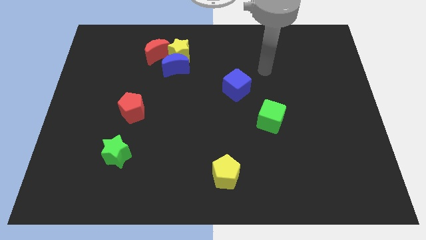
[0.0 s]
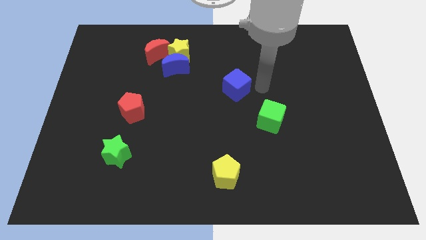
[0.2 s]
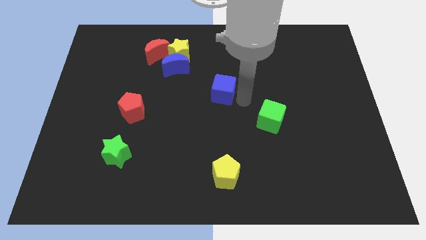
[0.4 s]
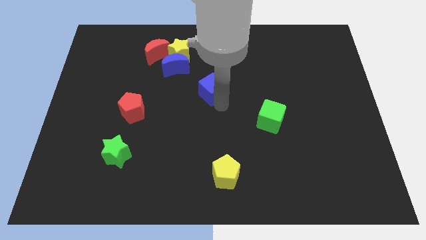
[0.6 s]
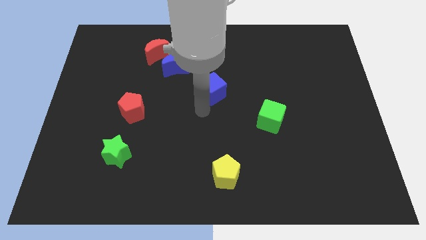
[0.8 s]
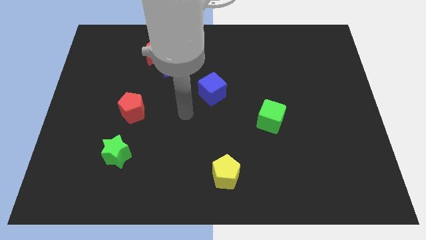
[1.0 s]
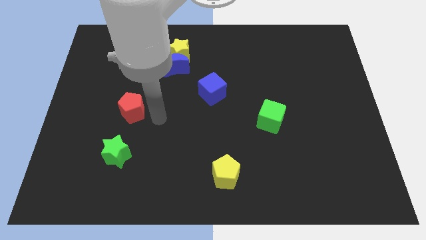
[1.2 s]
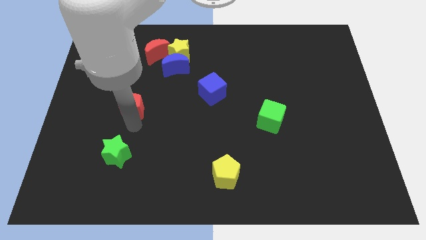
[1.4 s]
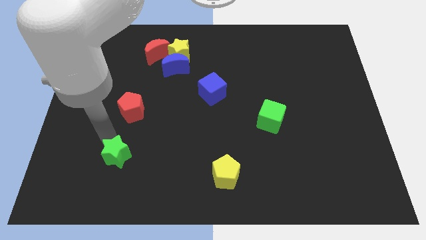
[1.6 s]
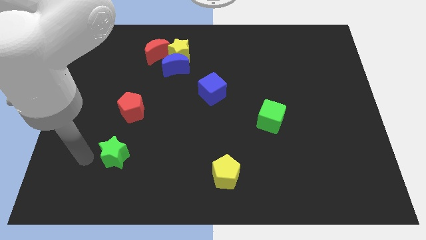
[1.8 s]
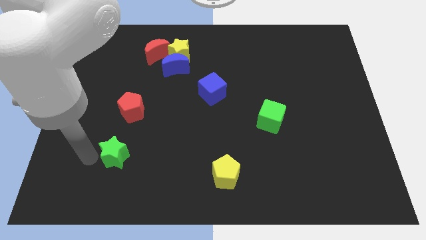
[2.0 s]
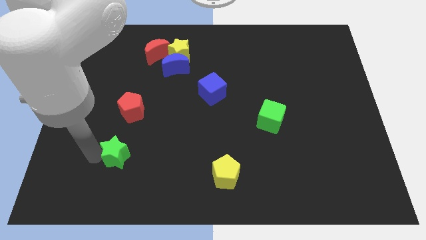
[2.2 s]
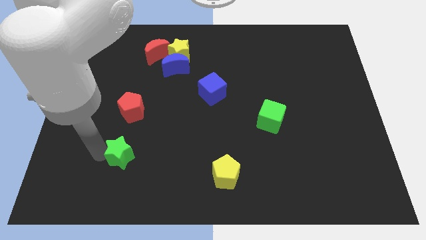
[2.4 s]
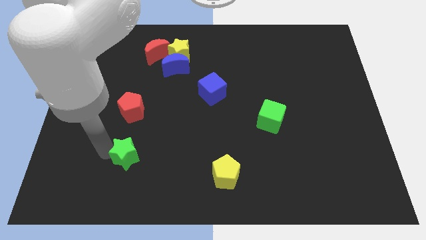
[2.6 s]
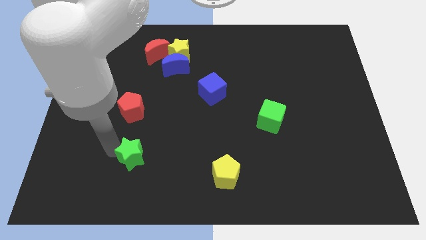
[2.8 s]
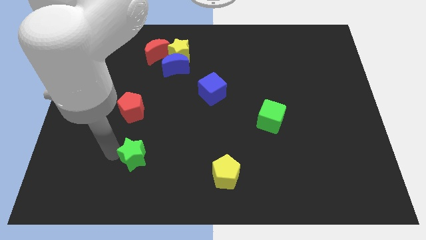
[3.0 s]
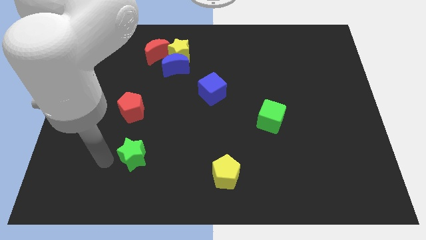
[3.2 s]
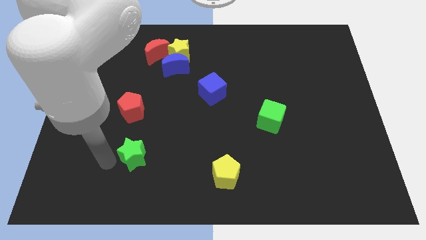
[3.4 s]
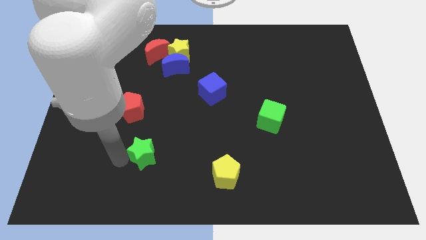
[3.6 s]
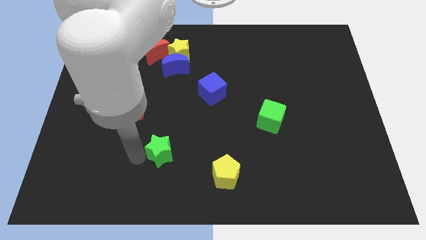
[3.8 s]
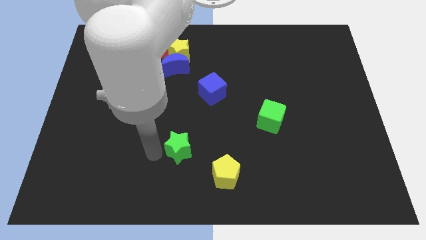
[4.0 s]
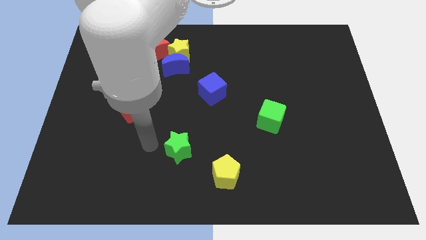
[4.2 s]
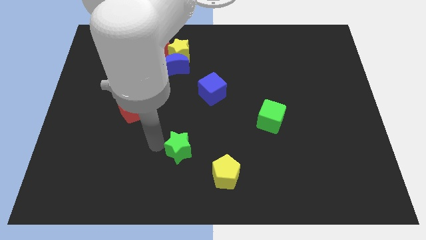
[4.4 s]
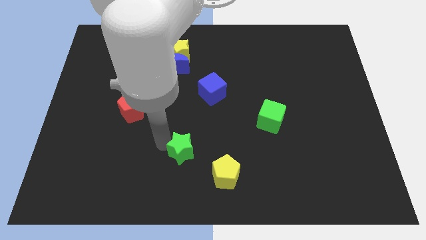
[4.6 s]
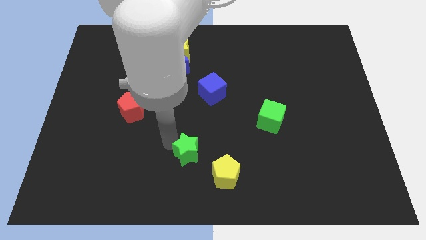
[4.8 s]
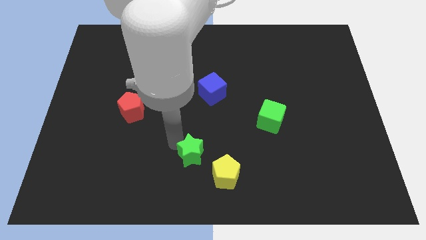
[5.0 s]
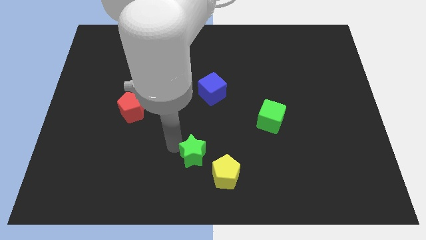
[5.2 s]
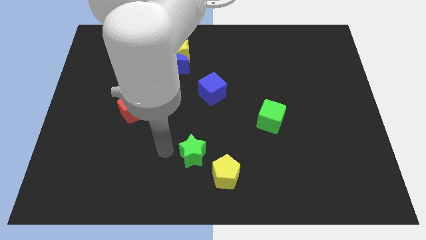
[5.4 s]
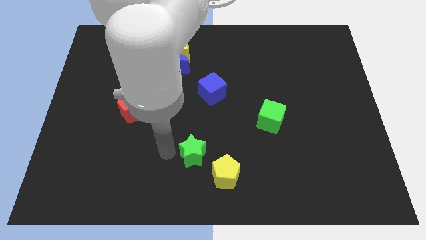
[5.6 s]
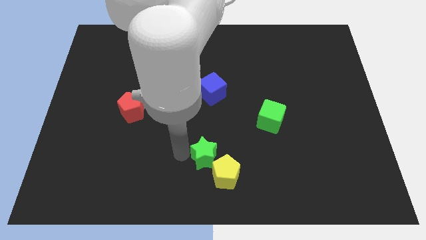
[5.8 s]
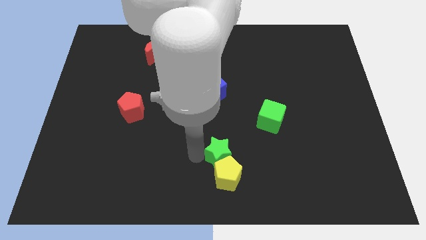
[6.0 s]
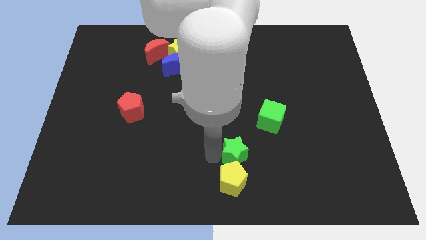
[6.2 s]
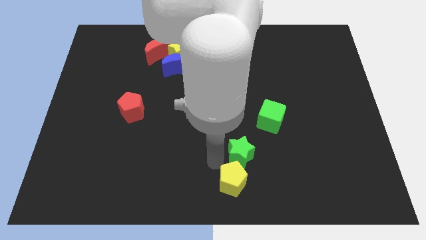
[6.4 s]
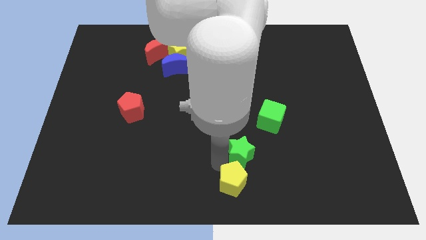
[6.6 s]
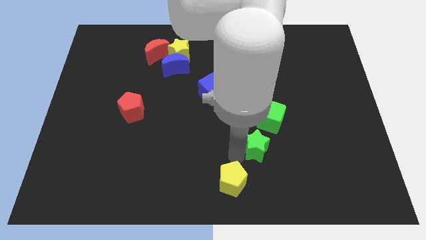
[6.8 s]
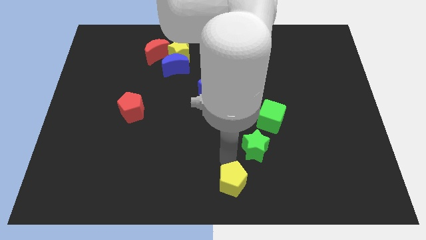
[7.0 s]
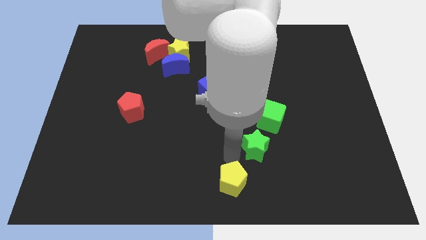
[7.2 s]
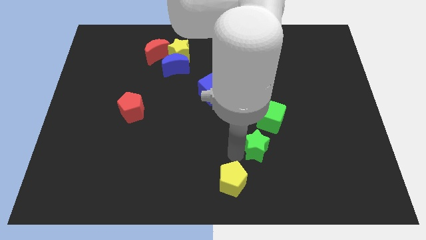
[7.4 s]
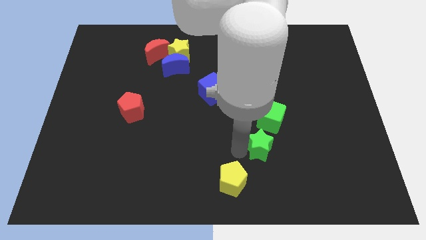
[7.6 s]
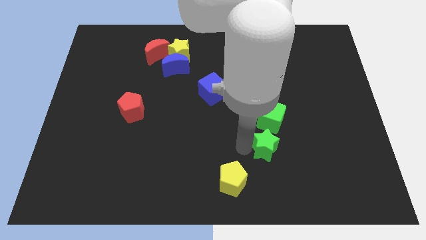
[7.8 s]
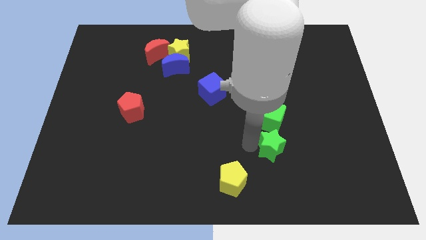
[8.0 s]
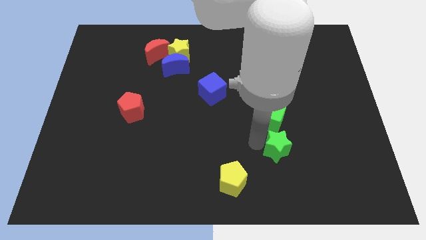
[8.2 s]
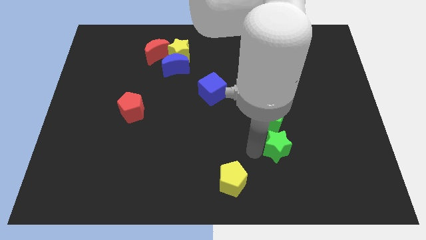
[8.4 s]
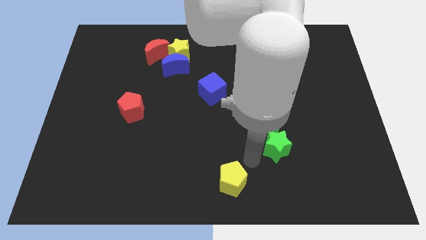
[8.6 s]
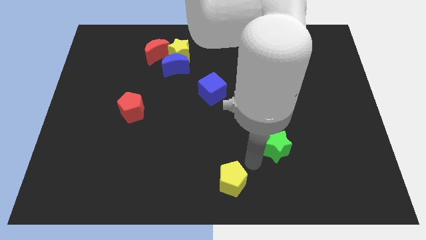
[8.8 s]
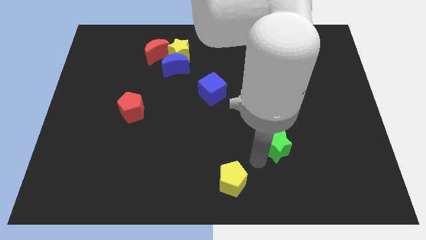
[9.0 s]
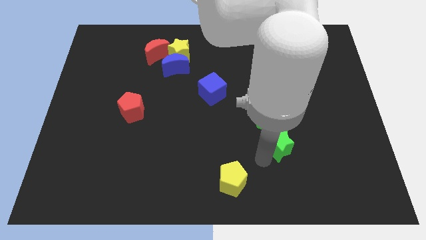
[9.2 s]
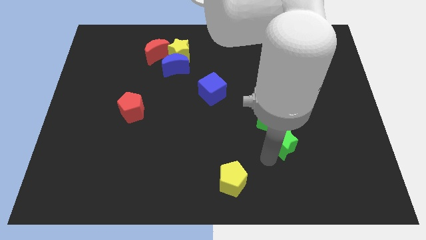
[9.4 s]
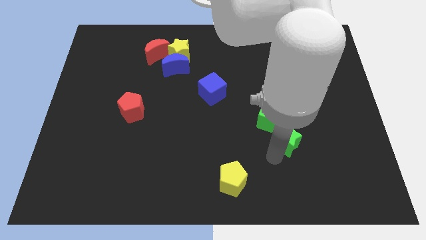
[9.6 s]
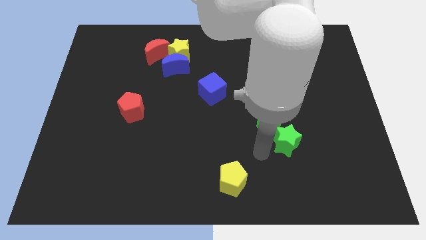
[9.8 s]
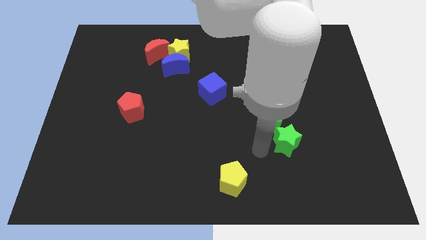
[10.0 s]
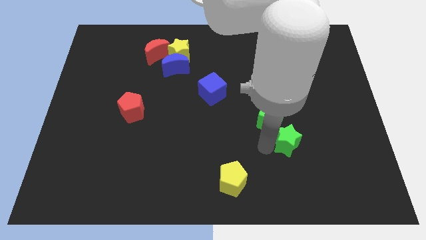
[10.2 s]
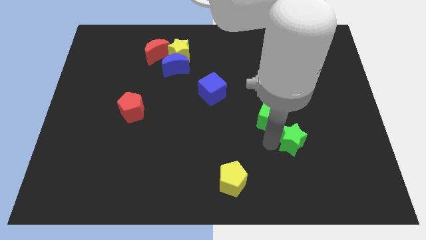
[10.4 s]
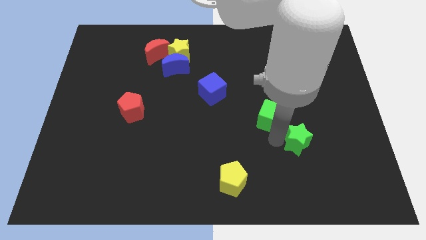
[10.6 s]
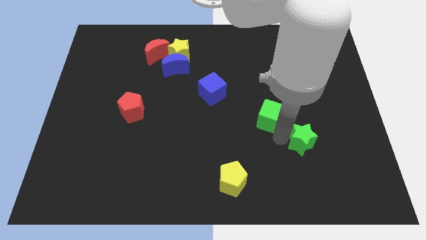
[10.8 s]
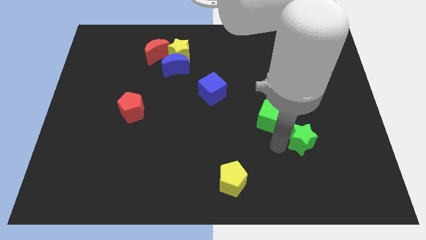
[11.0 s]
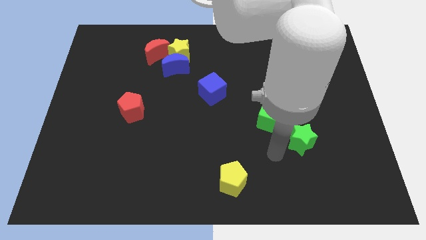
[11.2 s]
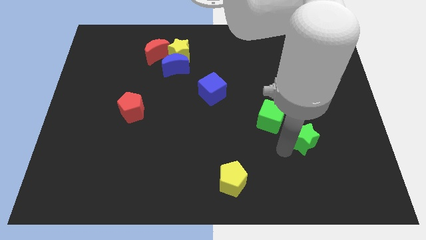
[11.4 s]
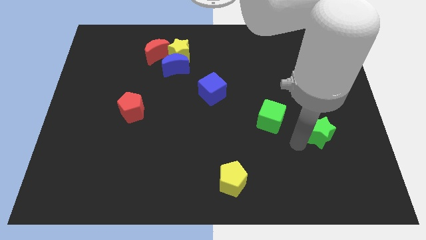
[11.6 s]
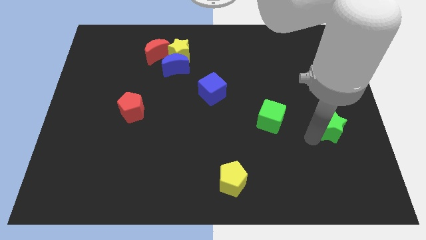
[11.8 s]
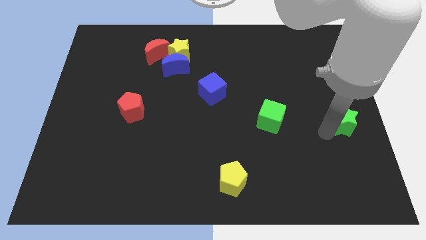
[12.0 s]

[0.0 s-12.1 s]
move the green star to the right side of the board

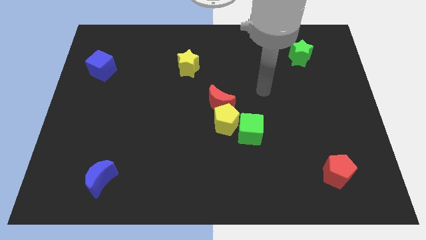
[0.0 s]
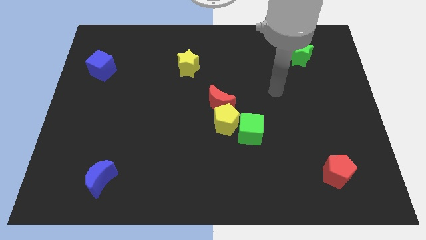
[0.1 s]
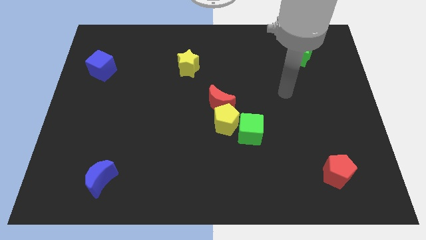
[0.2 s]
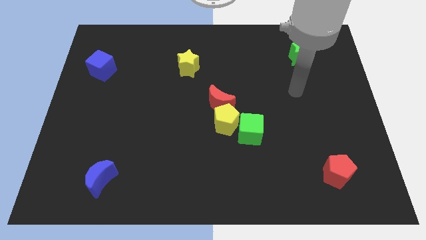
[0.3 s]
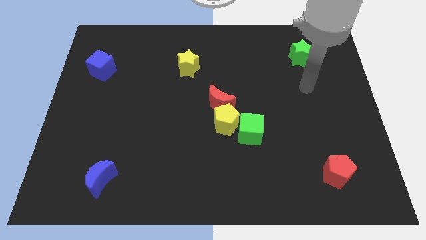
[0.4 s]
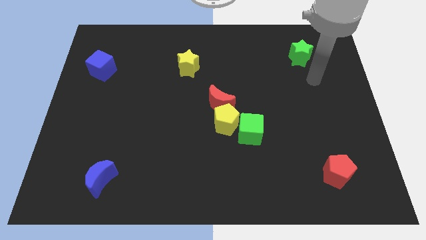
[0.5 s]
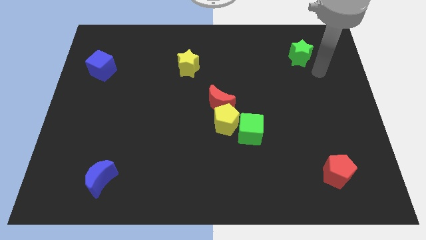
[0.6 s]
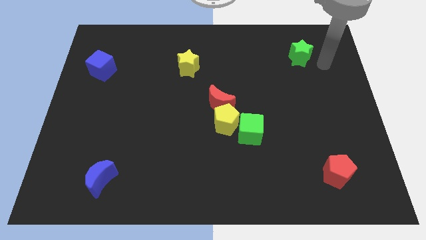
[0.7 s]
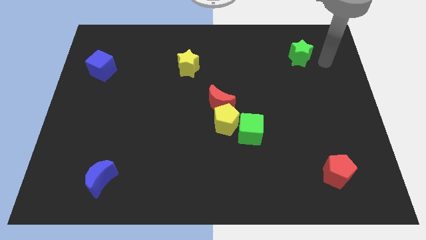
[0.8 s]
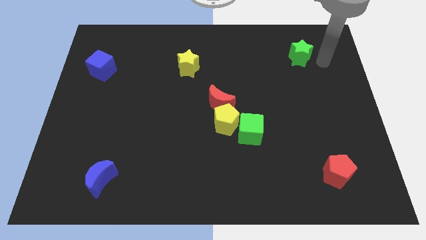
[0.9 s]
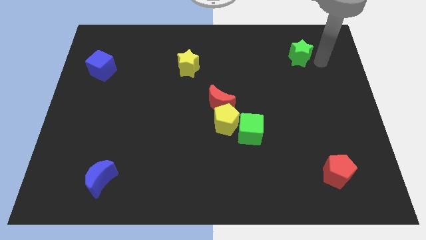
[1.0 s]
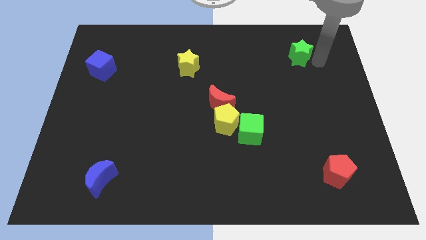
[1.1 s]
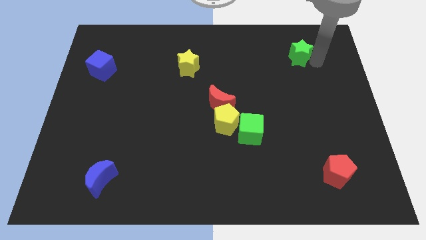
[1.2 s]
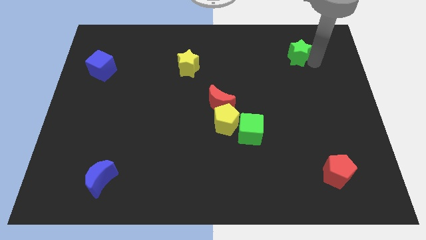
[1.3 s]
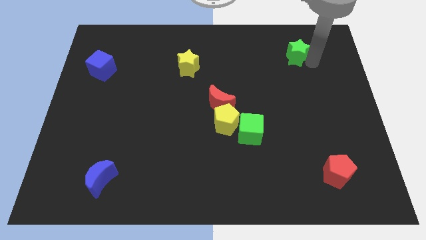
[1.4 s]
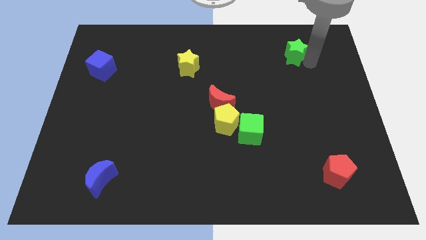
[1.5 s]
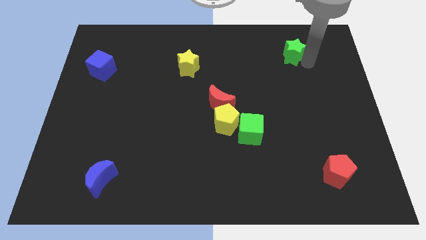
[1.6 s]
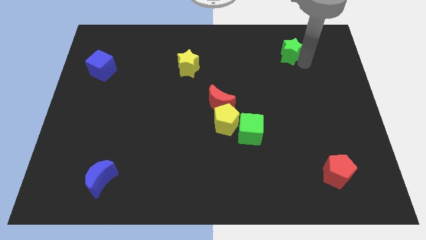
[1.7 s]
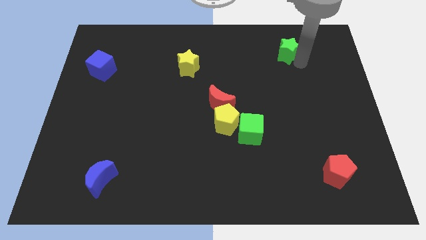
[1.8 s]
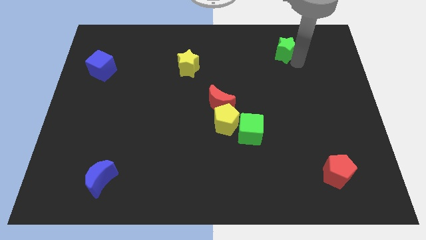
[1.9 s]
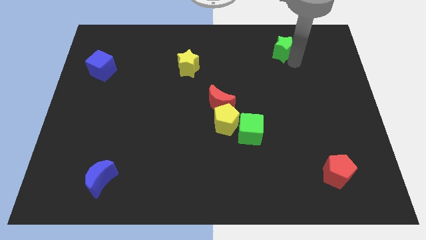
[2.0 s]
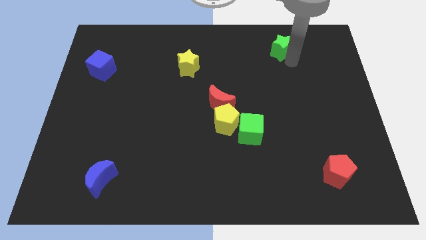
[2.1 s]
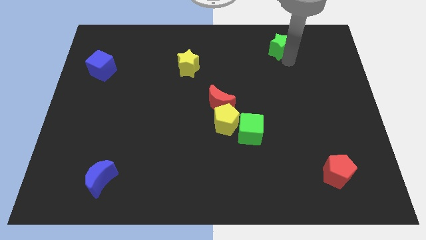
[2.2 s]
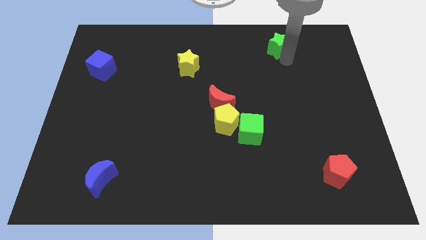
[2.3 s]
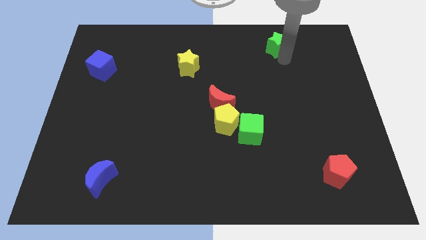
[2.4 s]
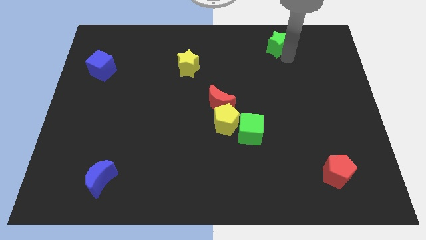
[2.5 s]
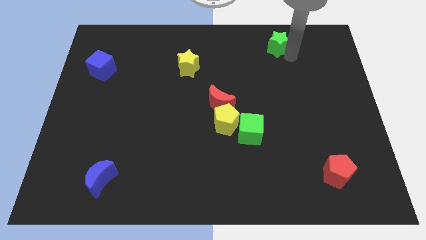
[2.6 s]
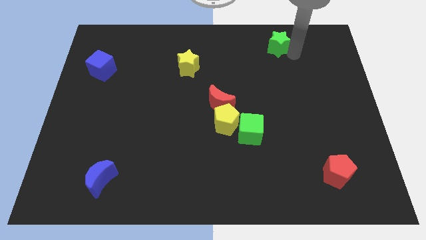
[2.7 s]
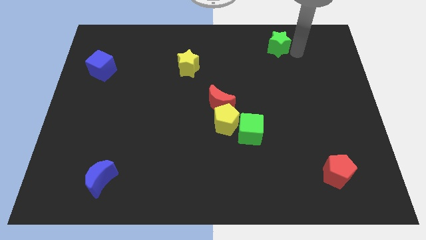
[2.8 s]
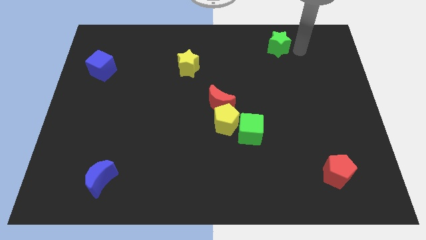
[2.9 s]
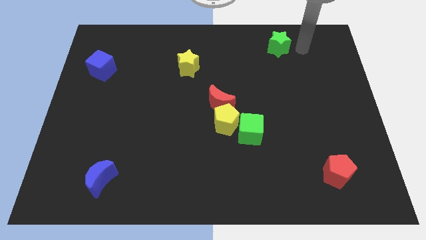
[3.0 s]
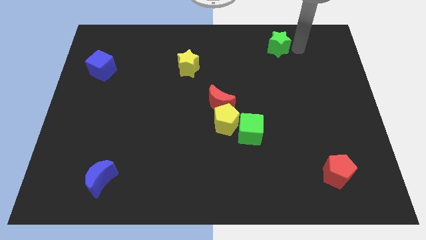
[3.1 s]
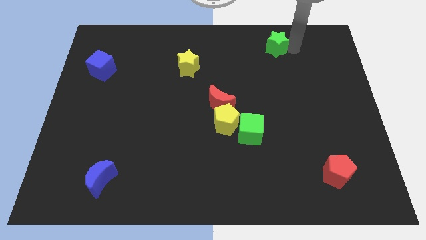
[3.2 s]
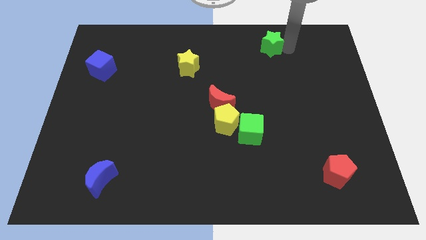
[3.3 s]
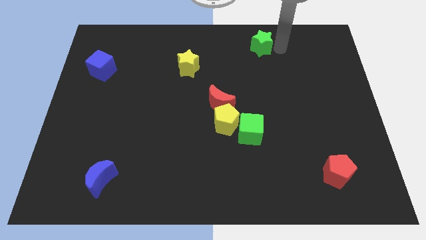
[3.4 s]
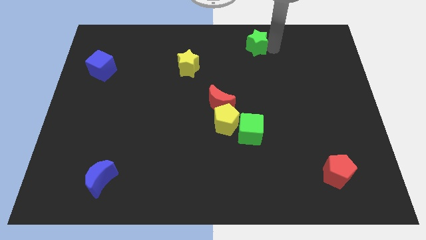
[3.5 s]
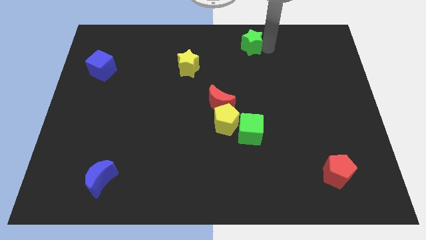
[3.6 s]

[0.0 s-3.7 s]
put the green star to the top side
